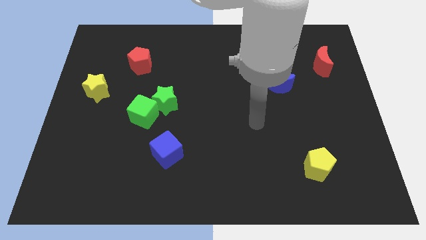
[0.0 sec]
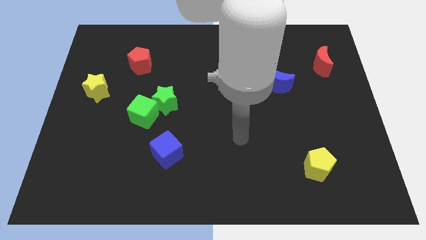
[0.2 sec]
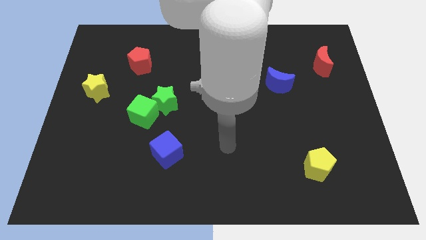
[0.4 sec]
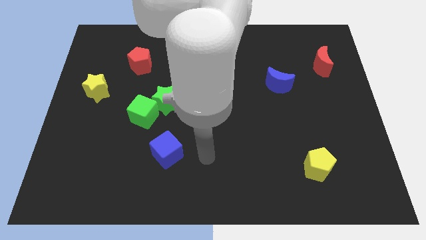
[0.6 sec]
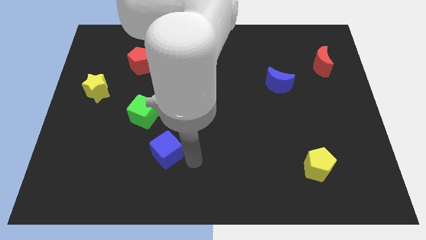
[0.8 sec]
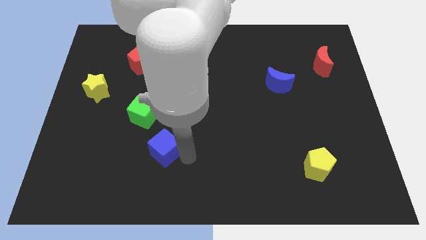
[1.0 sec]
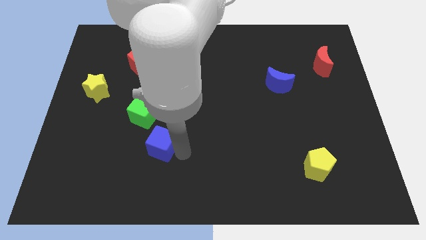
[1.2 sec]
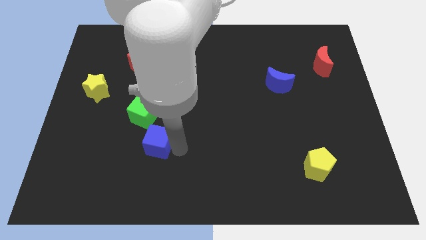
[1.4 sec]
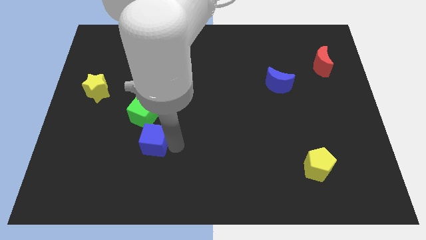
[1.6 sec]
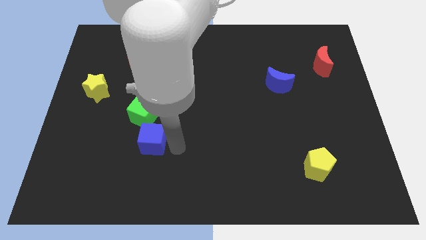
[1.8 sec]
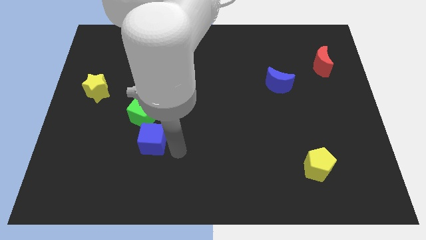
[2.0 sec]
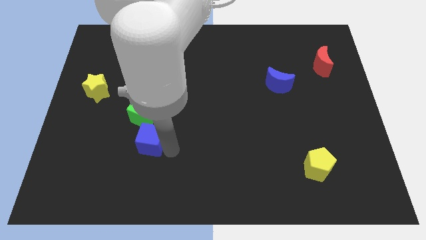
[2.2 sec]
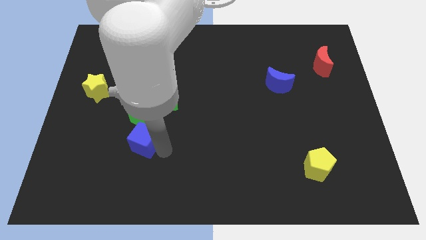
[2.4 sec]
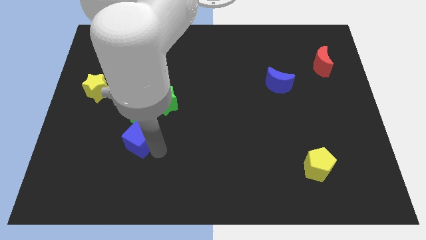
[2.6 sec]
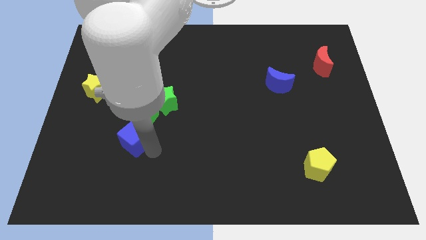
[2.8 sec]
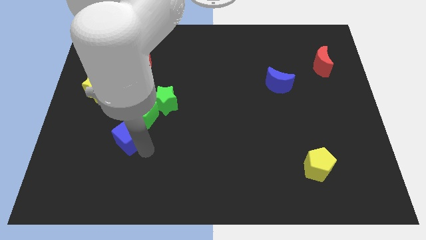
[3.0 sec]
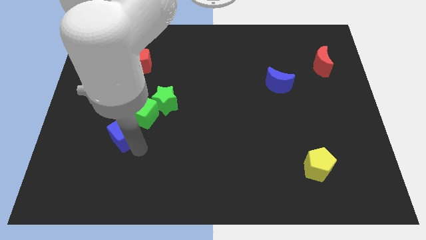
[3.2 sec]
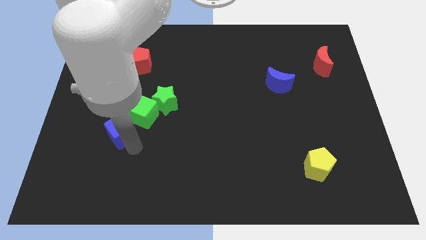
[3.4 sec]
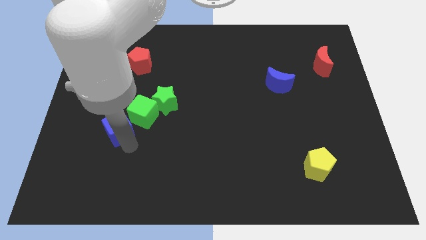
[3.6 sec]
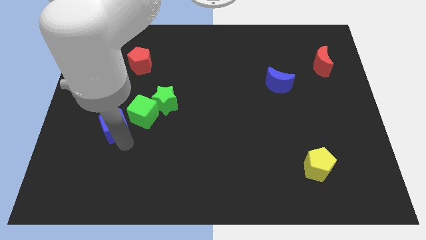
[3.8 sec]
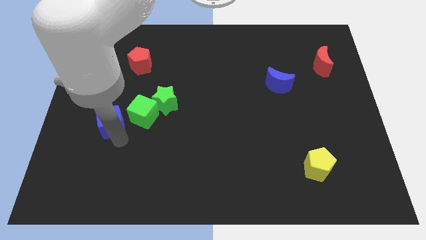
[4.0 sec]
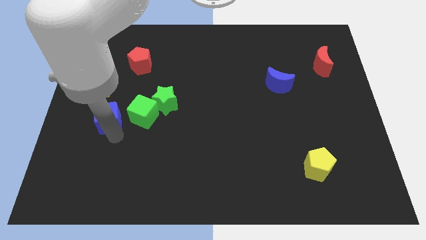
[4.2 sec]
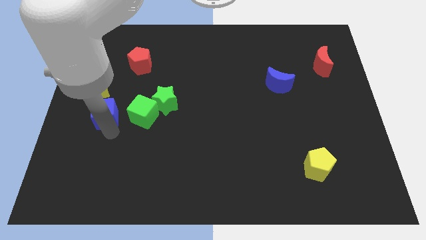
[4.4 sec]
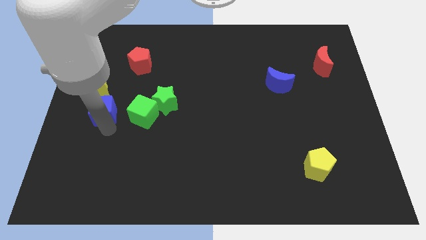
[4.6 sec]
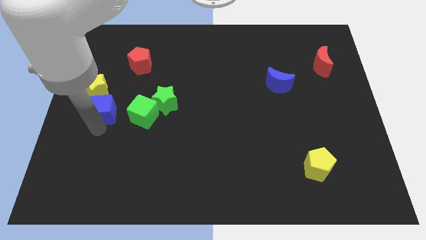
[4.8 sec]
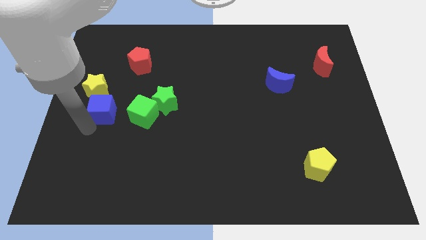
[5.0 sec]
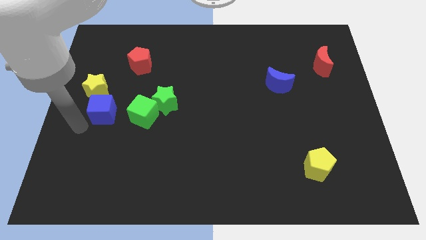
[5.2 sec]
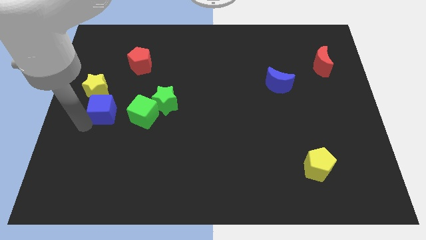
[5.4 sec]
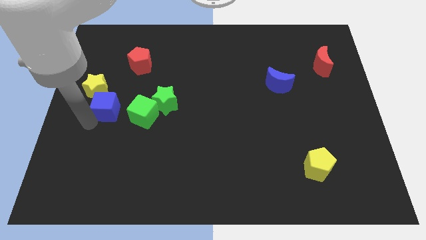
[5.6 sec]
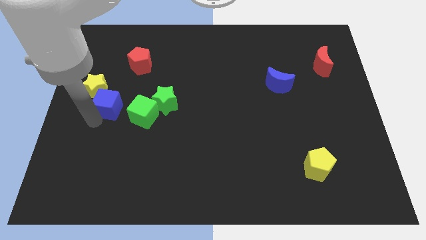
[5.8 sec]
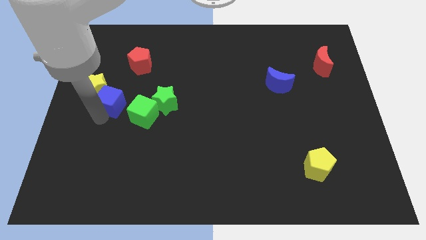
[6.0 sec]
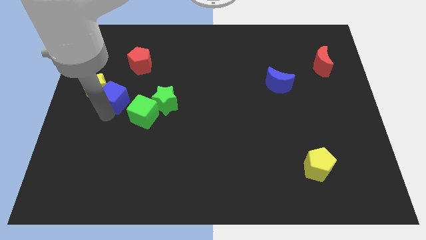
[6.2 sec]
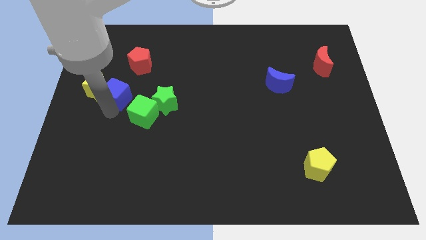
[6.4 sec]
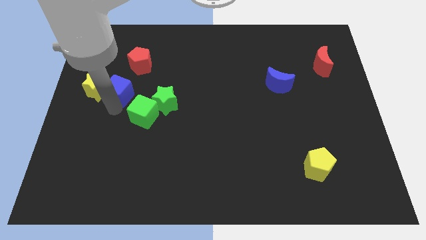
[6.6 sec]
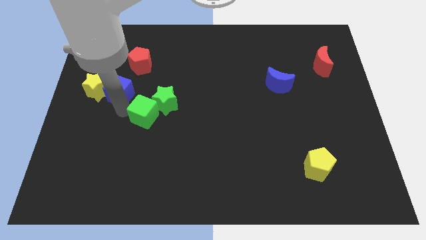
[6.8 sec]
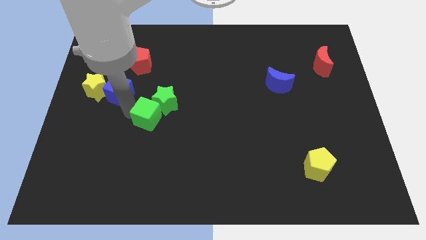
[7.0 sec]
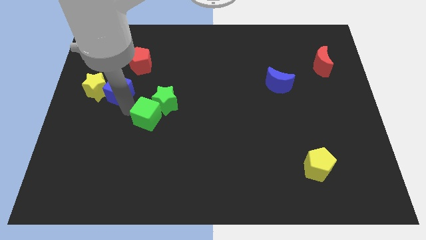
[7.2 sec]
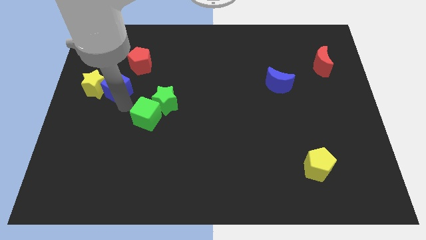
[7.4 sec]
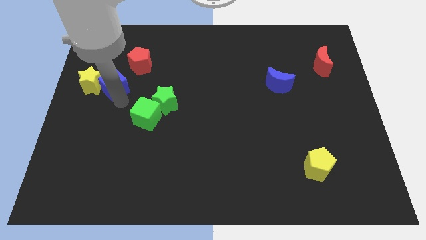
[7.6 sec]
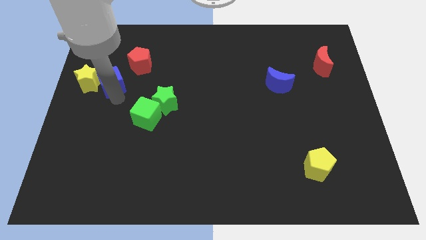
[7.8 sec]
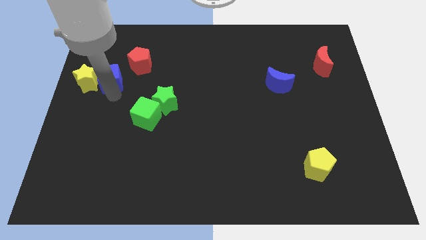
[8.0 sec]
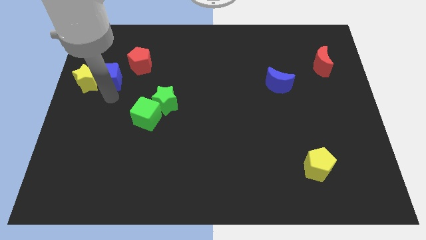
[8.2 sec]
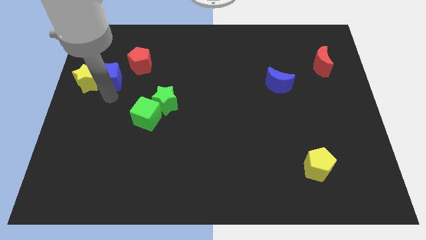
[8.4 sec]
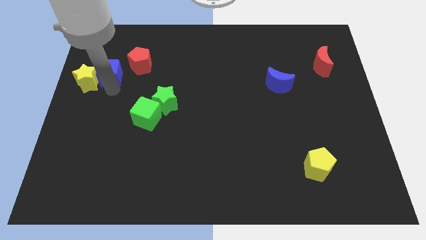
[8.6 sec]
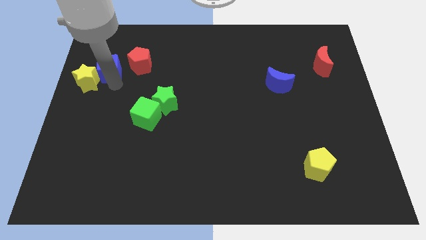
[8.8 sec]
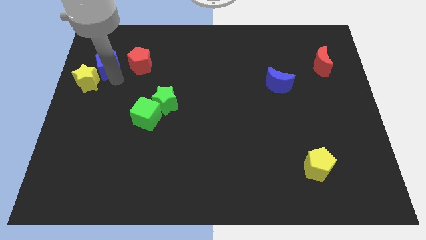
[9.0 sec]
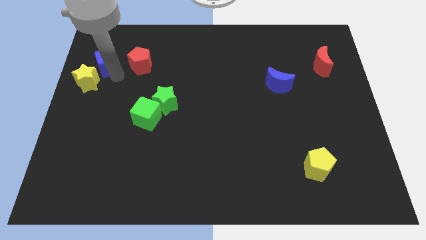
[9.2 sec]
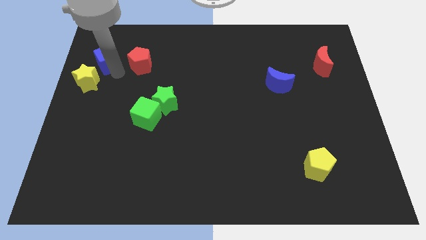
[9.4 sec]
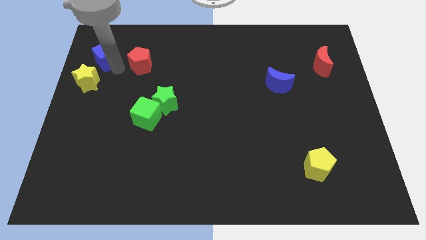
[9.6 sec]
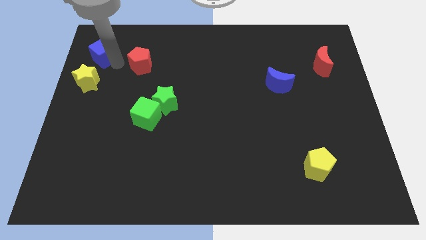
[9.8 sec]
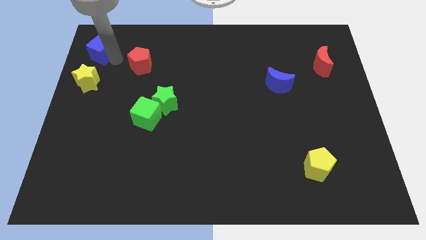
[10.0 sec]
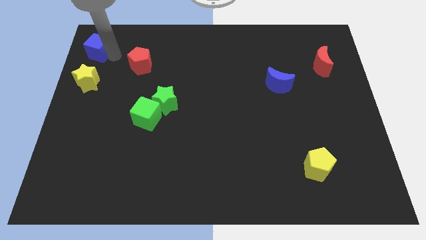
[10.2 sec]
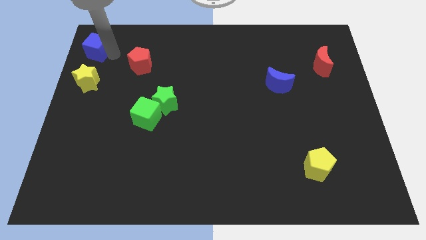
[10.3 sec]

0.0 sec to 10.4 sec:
move the blue cube to the upper left corner

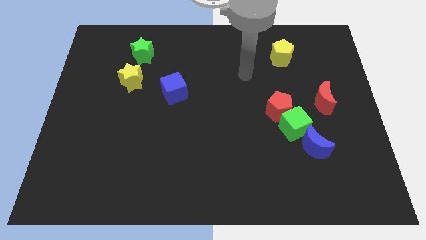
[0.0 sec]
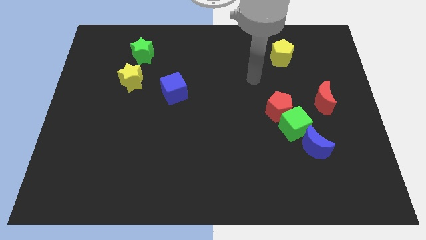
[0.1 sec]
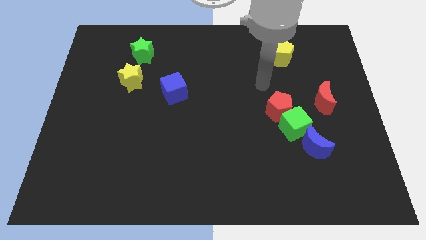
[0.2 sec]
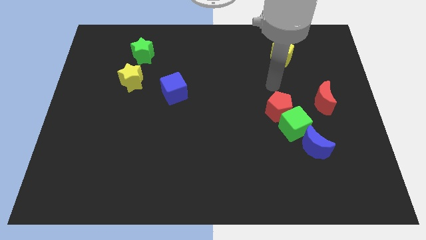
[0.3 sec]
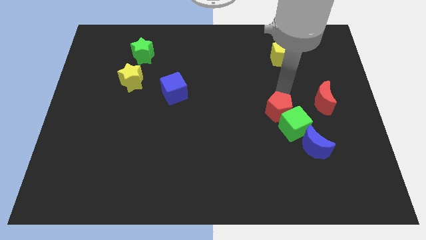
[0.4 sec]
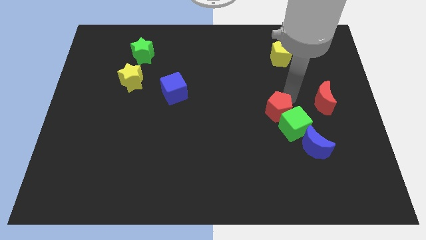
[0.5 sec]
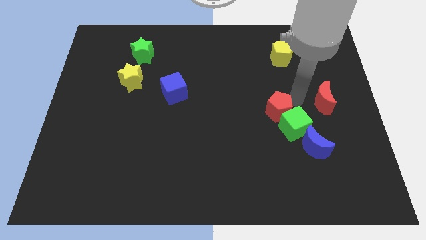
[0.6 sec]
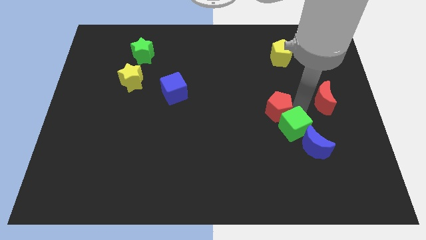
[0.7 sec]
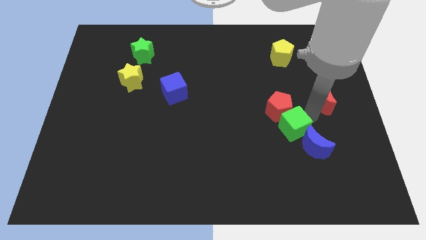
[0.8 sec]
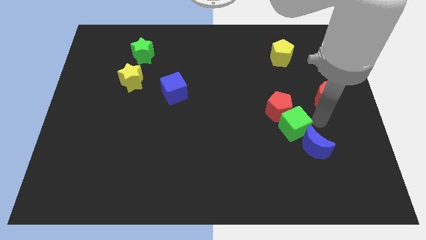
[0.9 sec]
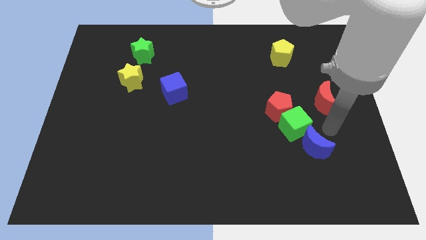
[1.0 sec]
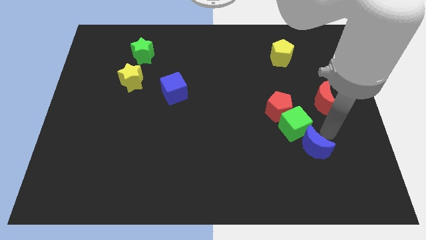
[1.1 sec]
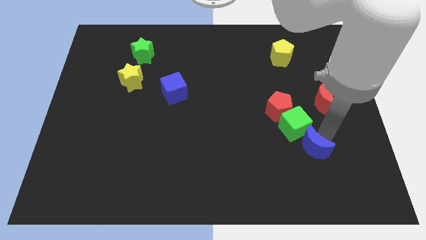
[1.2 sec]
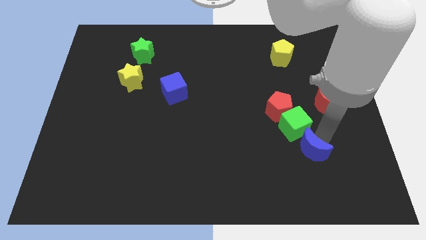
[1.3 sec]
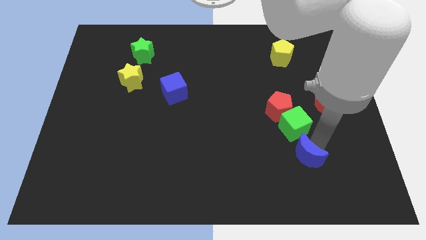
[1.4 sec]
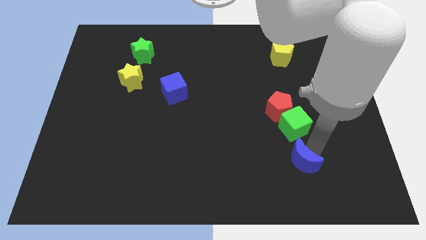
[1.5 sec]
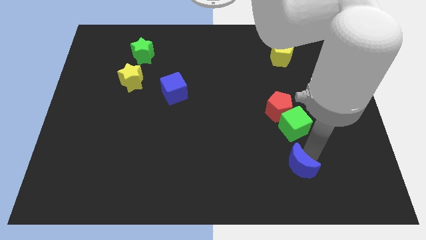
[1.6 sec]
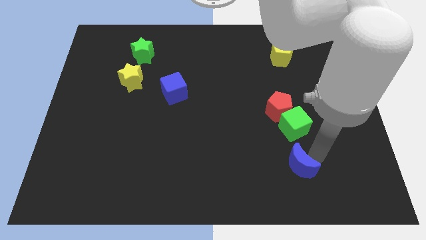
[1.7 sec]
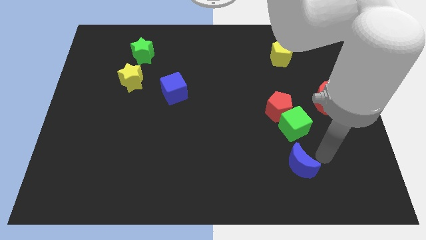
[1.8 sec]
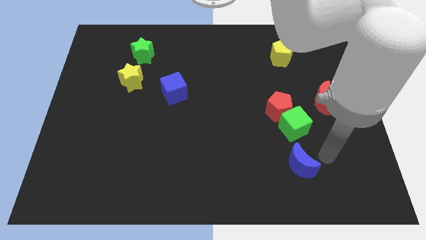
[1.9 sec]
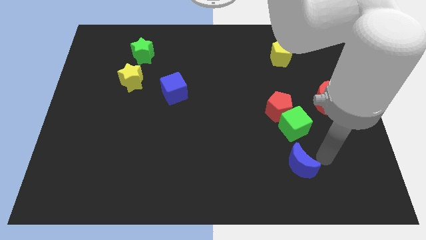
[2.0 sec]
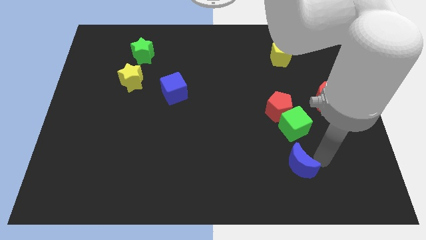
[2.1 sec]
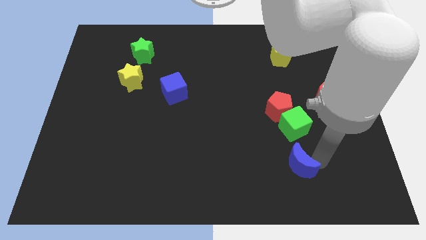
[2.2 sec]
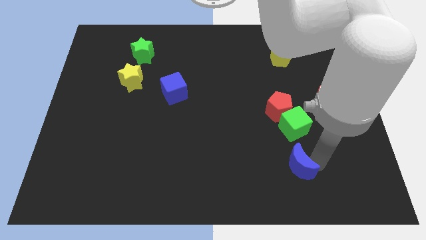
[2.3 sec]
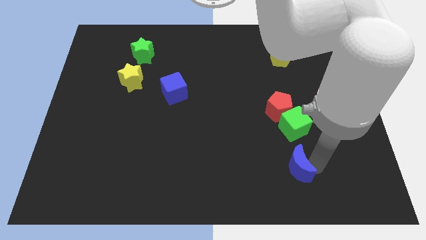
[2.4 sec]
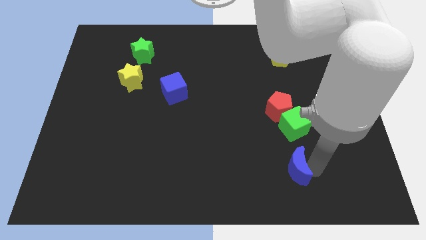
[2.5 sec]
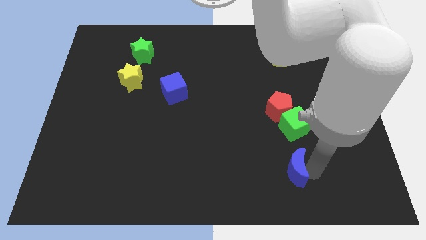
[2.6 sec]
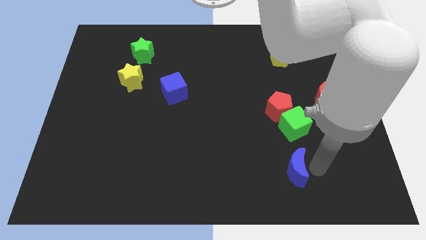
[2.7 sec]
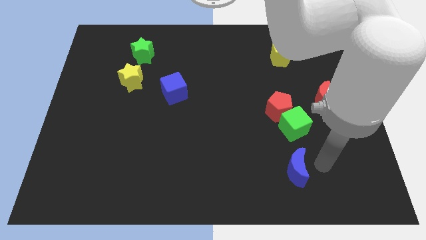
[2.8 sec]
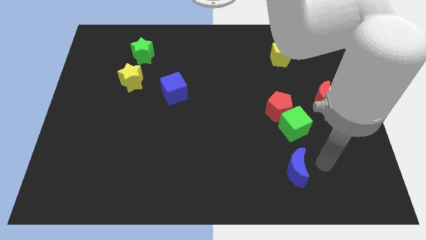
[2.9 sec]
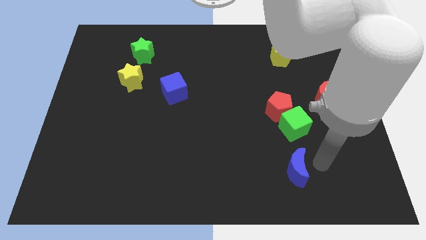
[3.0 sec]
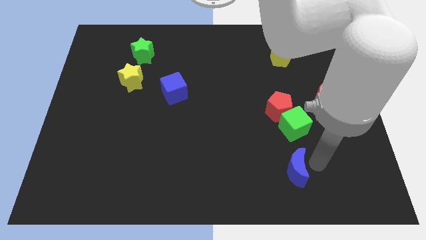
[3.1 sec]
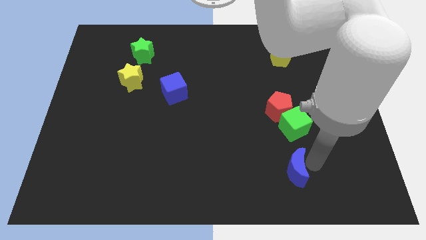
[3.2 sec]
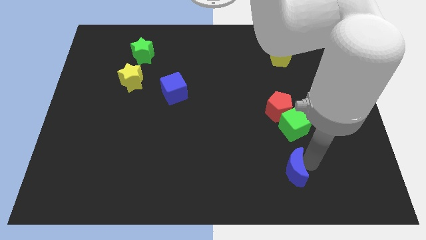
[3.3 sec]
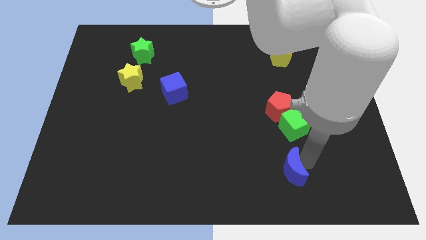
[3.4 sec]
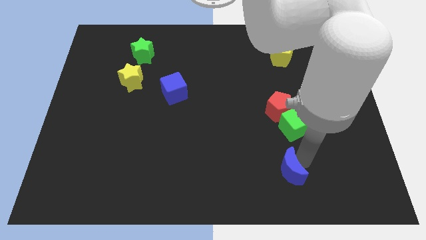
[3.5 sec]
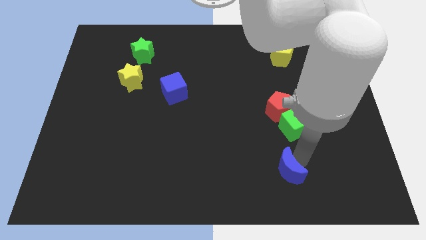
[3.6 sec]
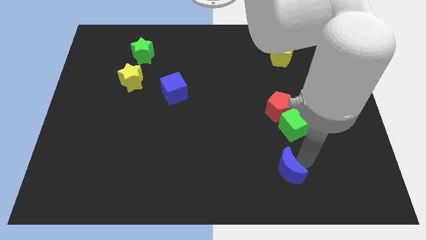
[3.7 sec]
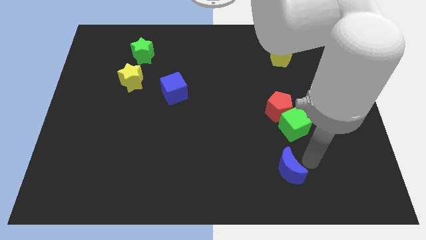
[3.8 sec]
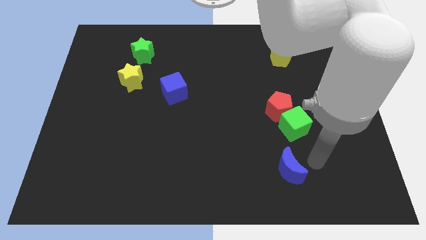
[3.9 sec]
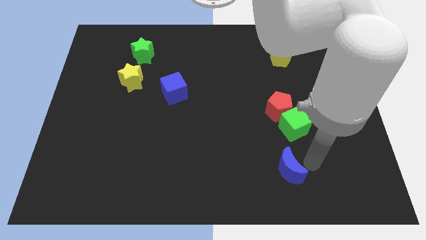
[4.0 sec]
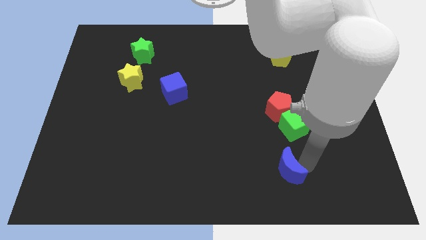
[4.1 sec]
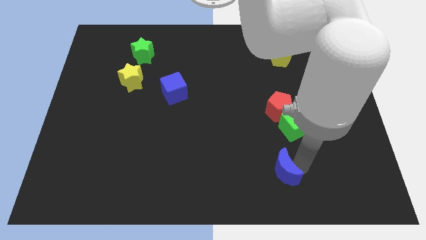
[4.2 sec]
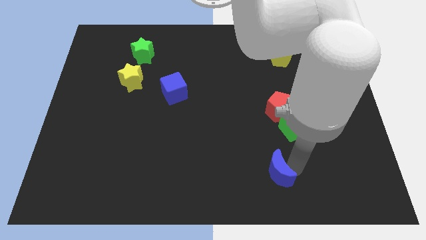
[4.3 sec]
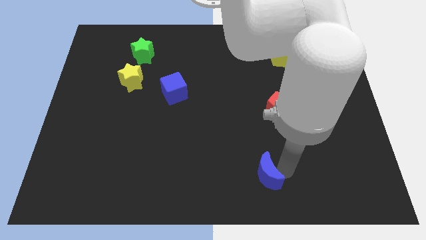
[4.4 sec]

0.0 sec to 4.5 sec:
slide the blue moon to the bottom side
